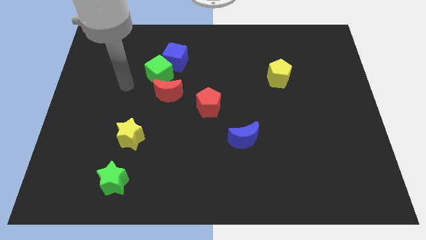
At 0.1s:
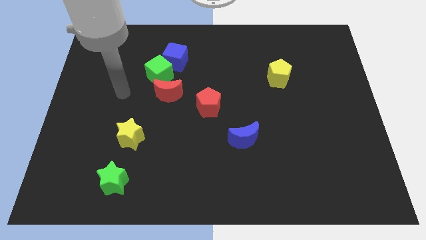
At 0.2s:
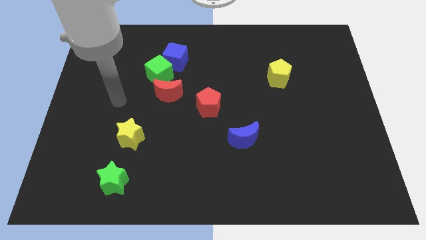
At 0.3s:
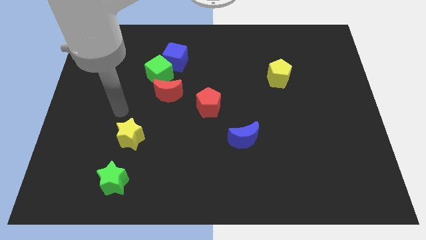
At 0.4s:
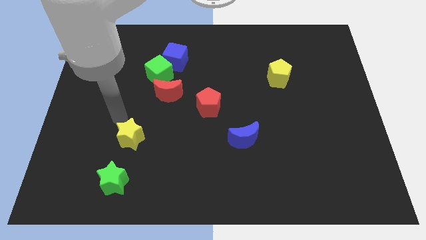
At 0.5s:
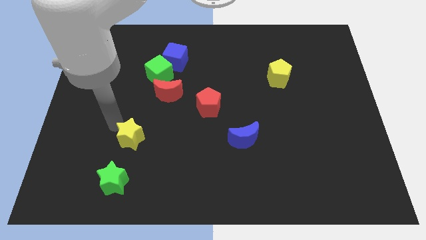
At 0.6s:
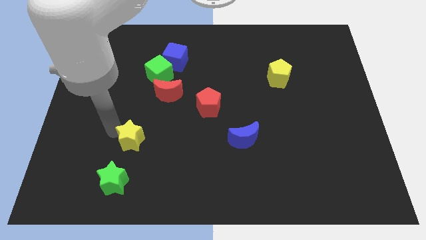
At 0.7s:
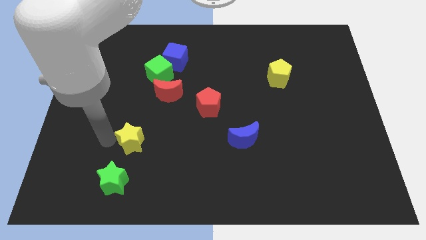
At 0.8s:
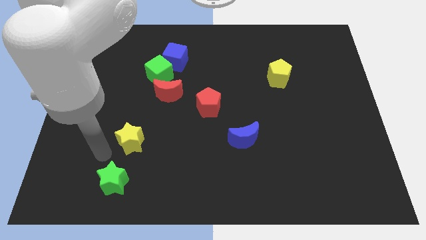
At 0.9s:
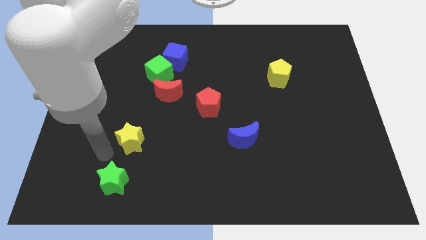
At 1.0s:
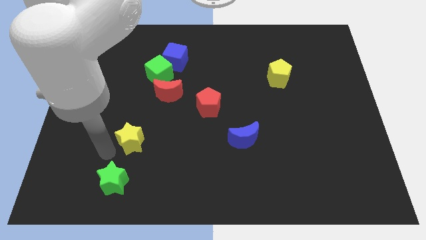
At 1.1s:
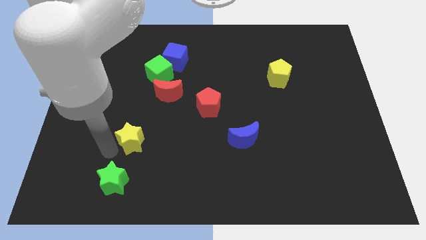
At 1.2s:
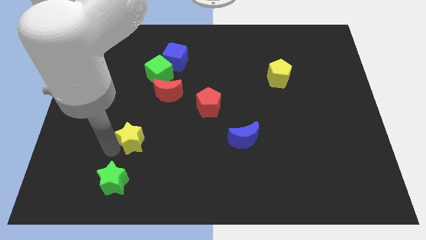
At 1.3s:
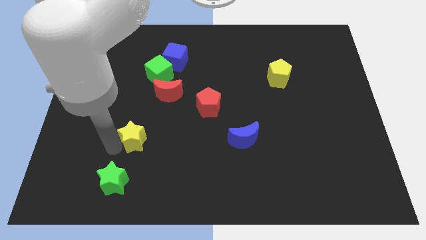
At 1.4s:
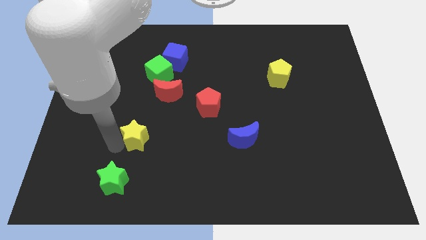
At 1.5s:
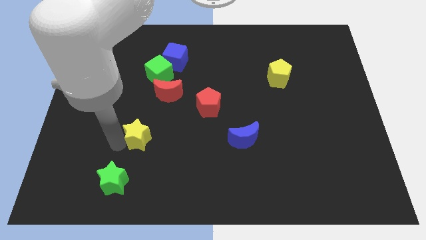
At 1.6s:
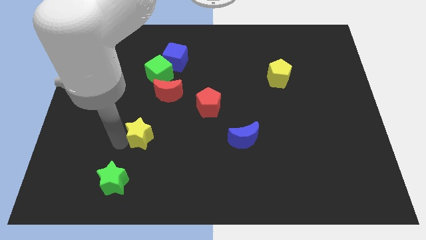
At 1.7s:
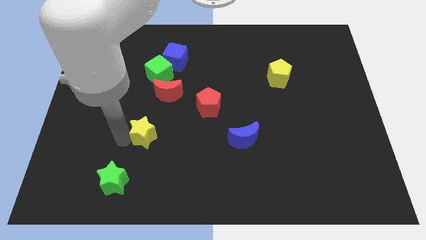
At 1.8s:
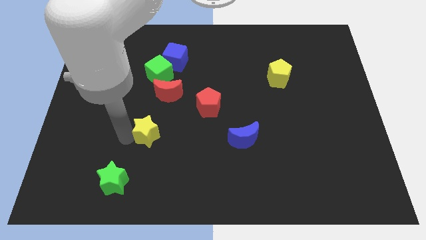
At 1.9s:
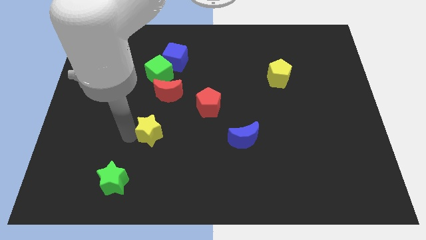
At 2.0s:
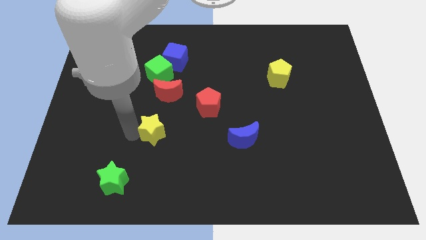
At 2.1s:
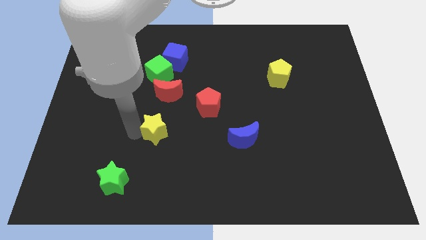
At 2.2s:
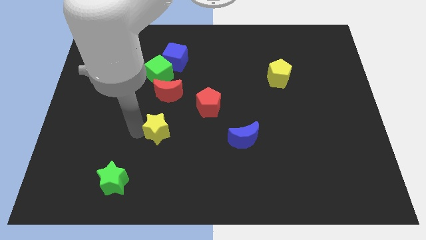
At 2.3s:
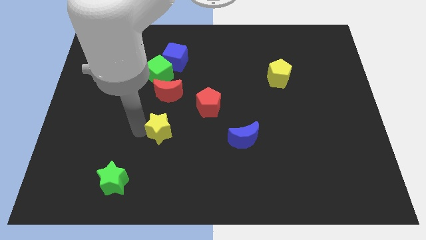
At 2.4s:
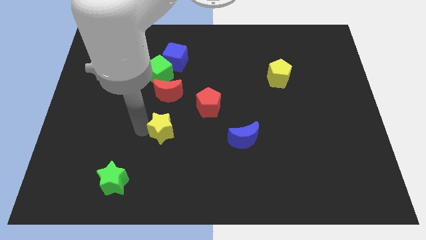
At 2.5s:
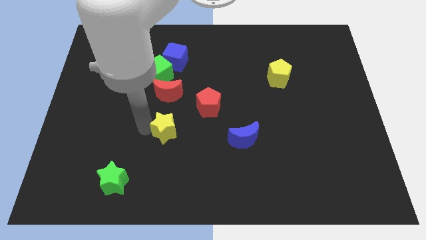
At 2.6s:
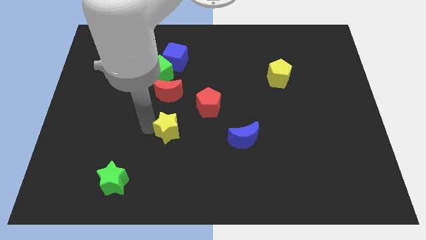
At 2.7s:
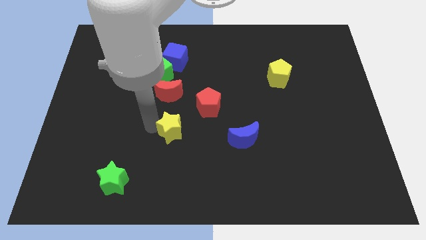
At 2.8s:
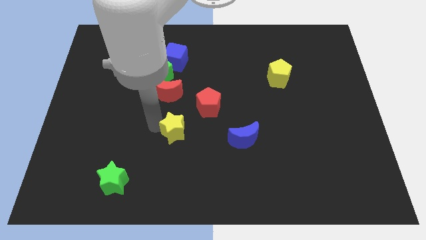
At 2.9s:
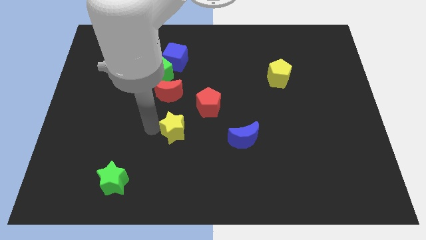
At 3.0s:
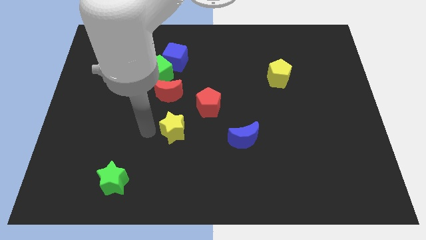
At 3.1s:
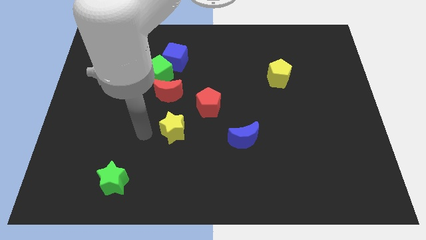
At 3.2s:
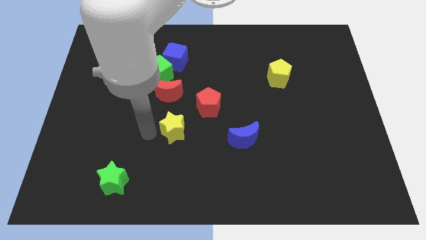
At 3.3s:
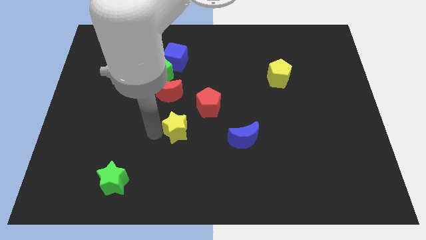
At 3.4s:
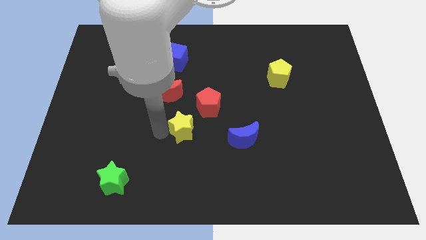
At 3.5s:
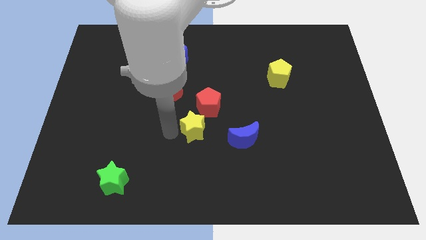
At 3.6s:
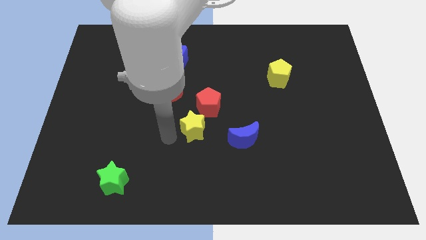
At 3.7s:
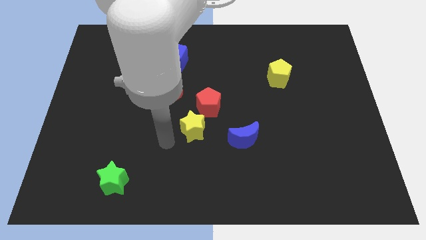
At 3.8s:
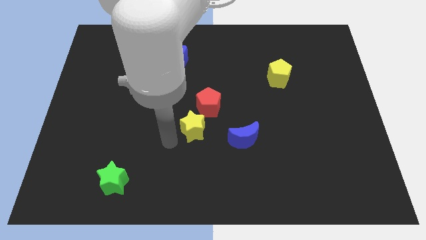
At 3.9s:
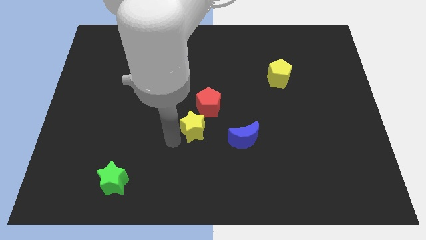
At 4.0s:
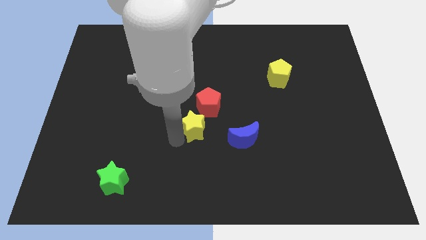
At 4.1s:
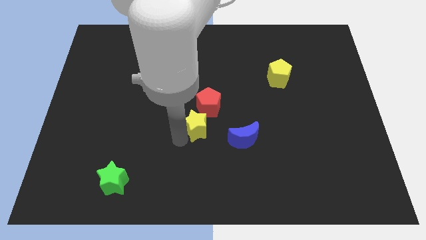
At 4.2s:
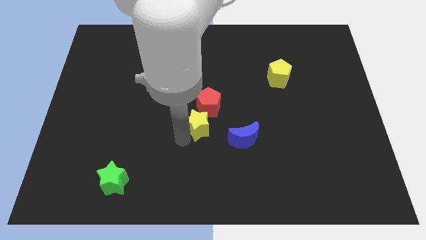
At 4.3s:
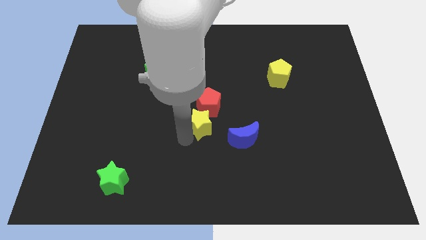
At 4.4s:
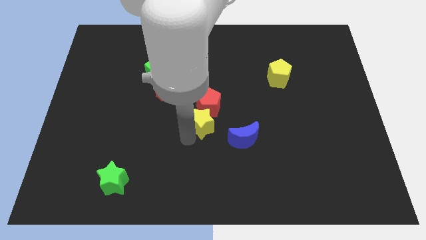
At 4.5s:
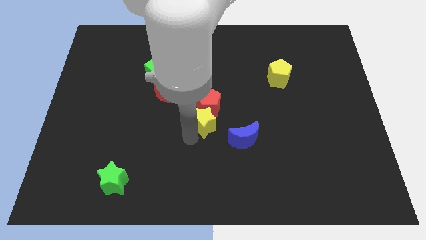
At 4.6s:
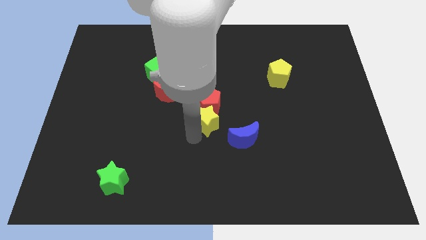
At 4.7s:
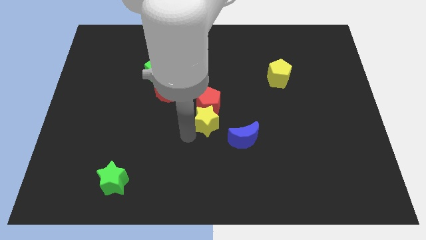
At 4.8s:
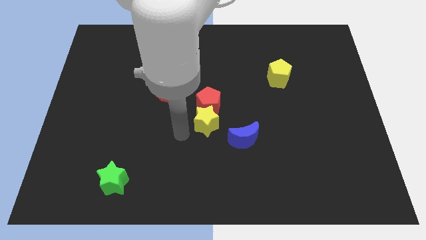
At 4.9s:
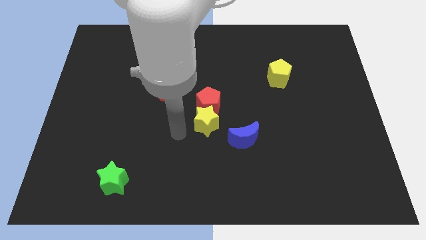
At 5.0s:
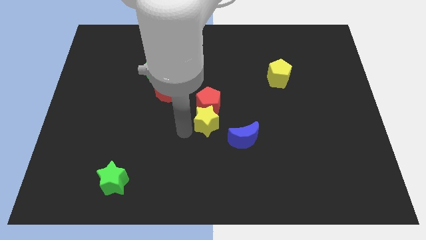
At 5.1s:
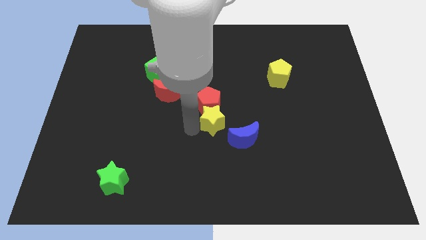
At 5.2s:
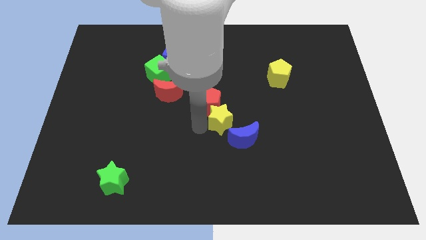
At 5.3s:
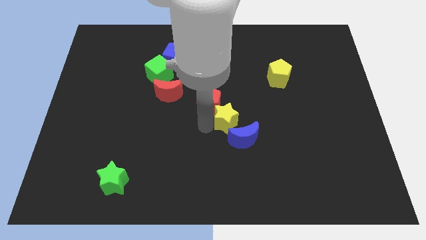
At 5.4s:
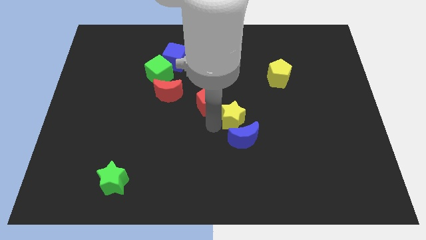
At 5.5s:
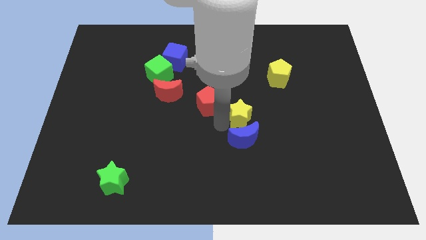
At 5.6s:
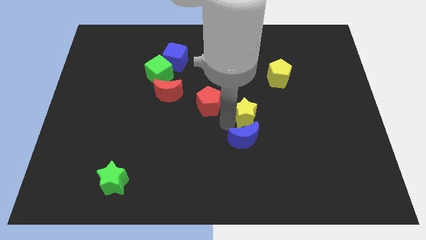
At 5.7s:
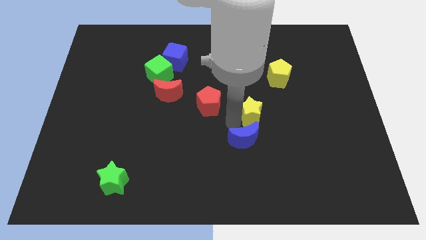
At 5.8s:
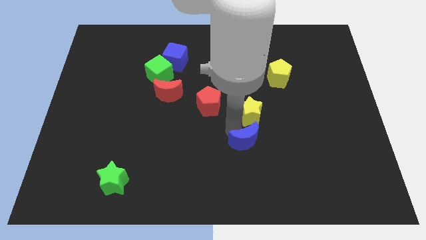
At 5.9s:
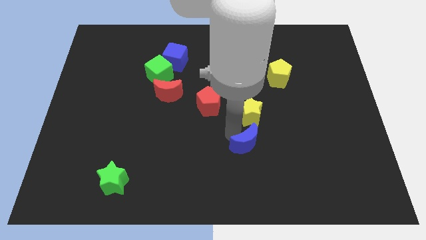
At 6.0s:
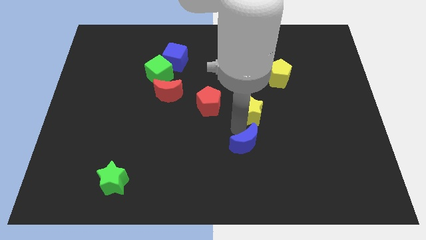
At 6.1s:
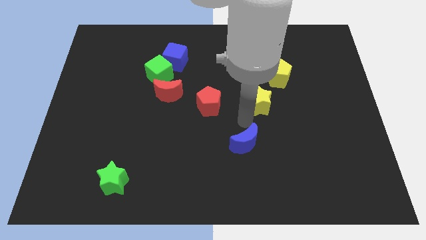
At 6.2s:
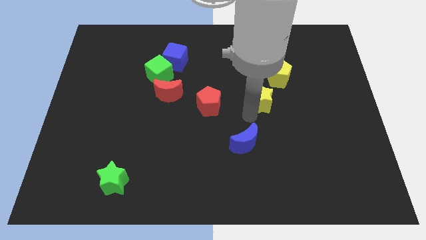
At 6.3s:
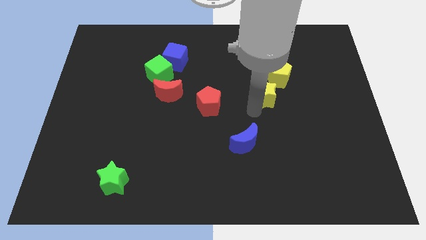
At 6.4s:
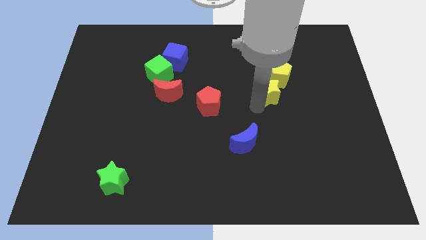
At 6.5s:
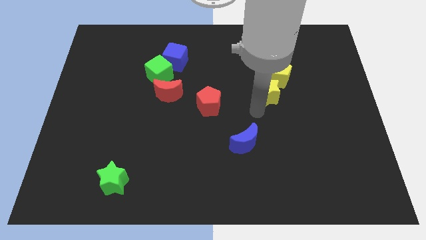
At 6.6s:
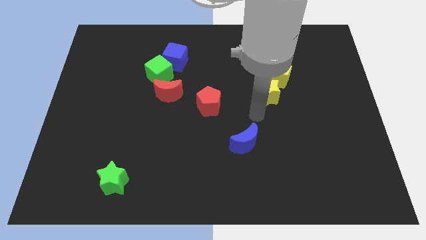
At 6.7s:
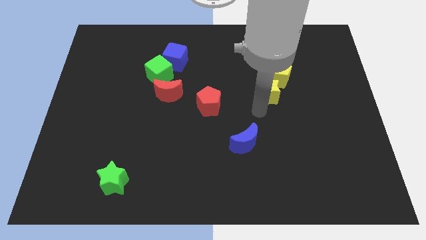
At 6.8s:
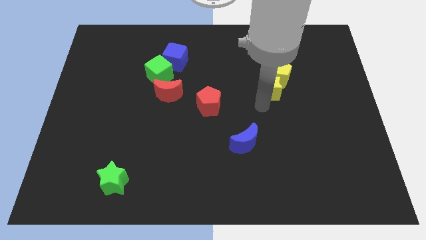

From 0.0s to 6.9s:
move the yellow star next to the yellow pentagon
